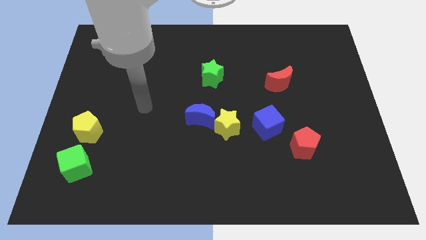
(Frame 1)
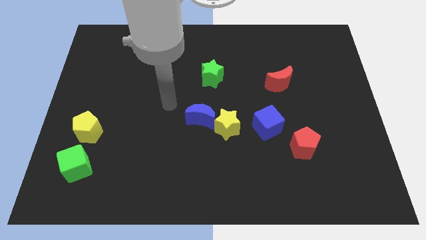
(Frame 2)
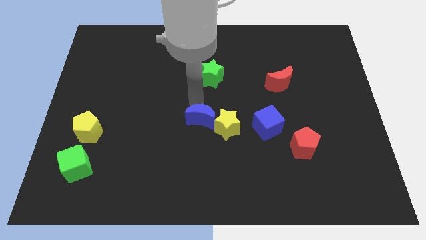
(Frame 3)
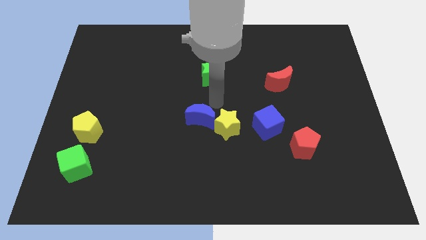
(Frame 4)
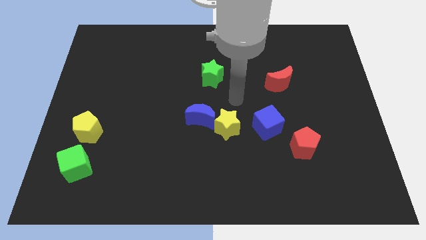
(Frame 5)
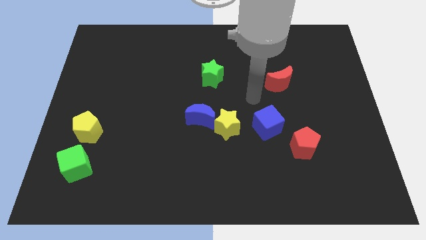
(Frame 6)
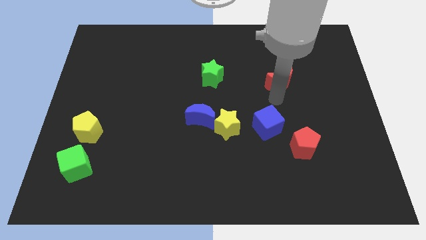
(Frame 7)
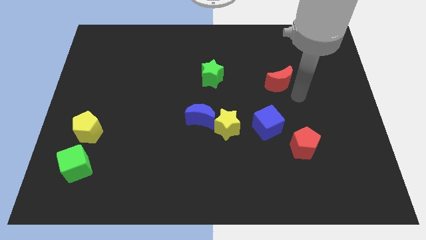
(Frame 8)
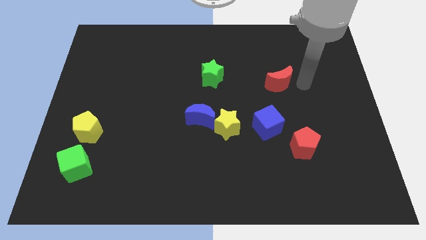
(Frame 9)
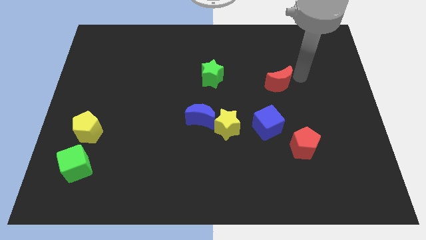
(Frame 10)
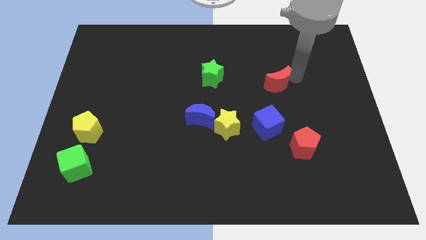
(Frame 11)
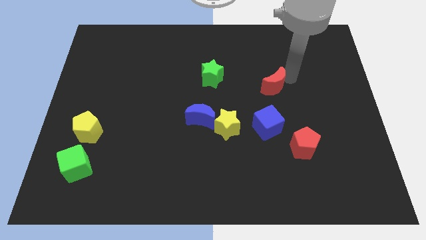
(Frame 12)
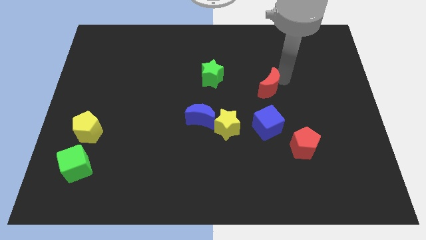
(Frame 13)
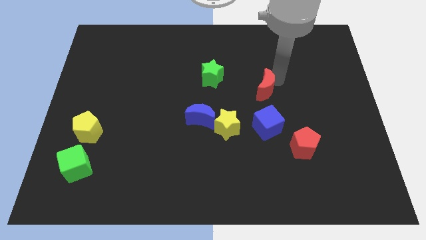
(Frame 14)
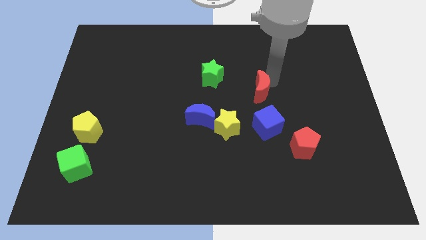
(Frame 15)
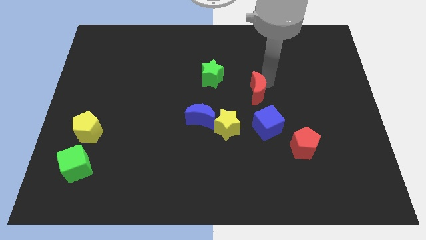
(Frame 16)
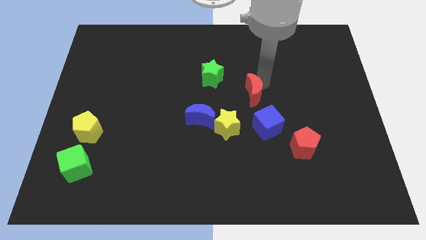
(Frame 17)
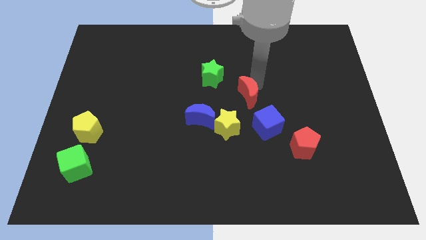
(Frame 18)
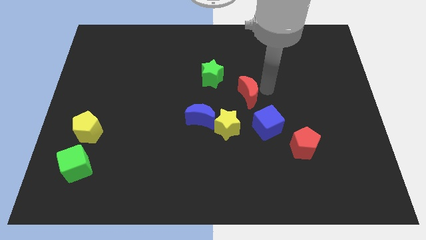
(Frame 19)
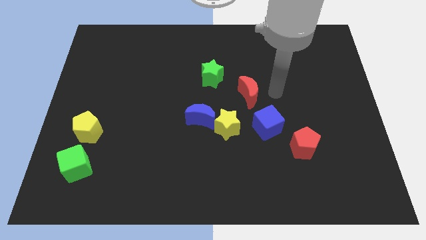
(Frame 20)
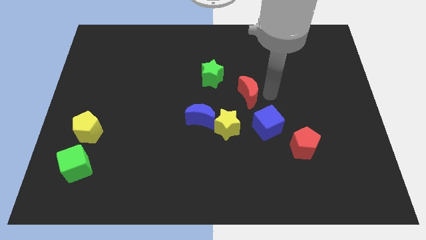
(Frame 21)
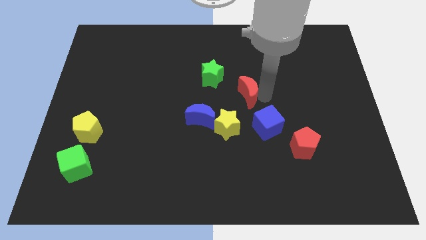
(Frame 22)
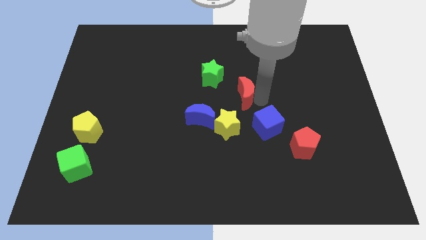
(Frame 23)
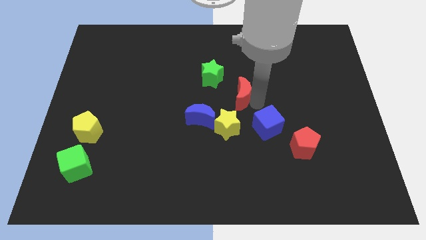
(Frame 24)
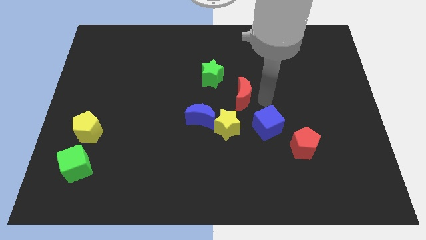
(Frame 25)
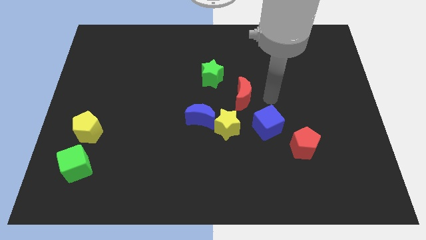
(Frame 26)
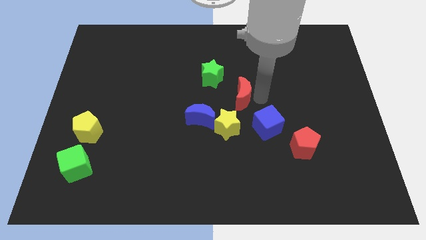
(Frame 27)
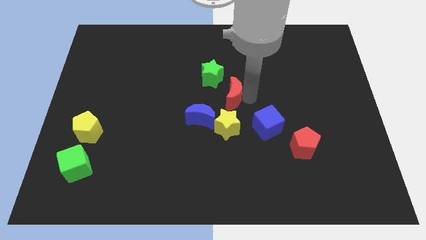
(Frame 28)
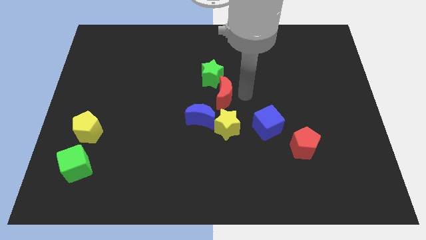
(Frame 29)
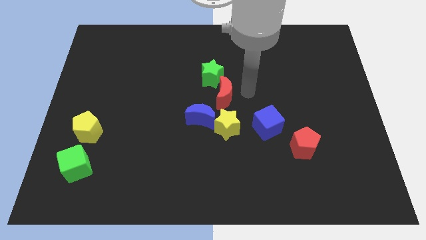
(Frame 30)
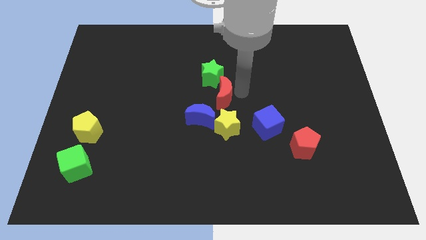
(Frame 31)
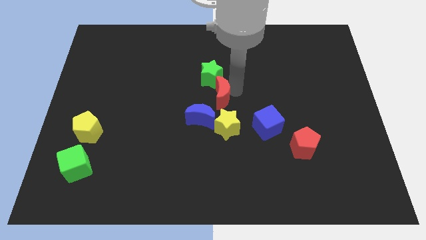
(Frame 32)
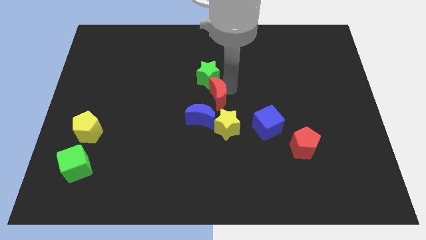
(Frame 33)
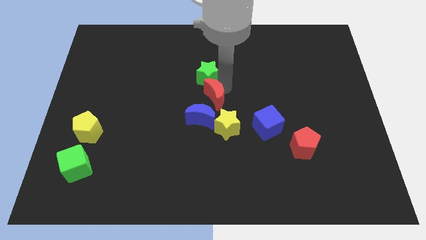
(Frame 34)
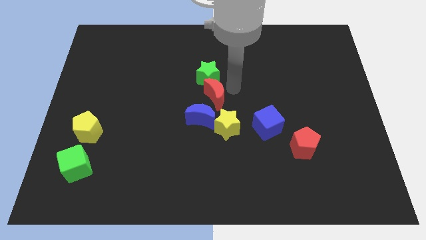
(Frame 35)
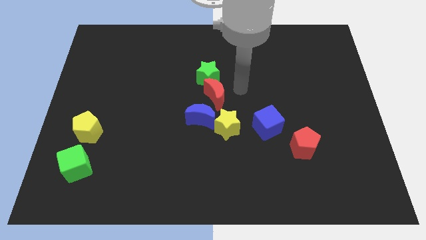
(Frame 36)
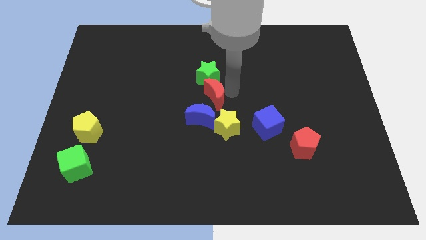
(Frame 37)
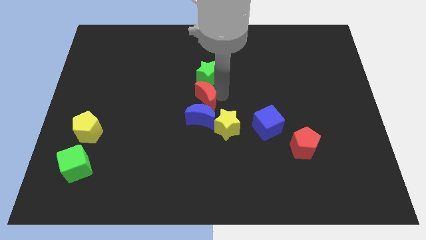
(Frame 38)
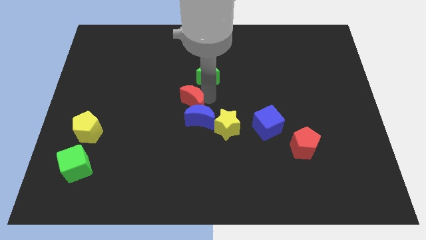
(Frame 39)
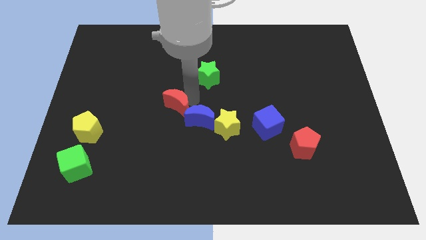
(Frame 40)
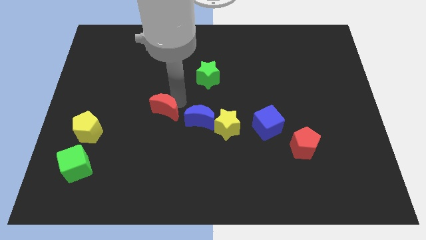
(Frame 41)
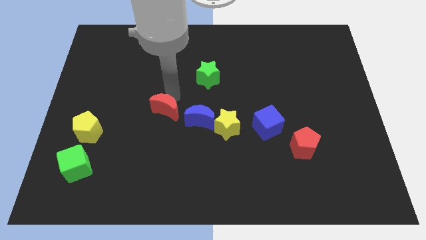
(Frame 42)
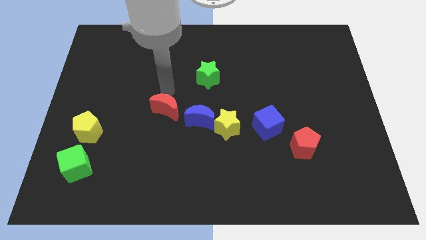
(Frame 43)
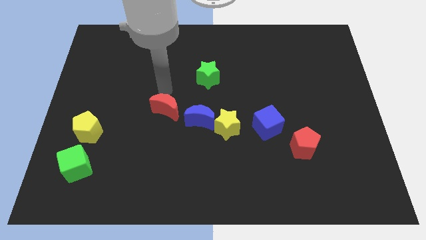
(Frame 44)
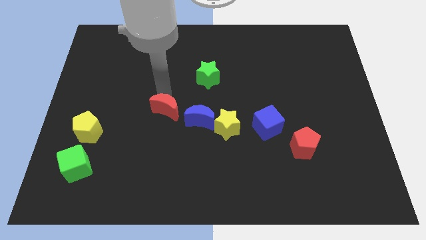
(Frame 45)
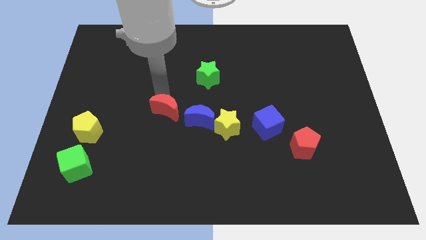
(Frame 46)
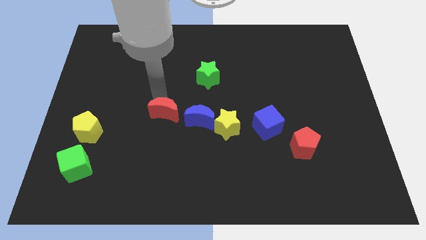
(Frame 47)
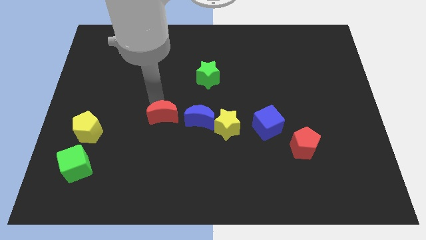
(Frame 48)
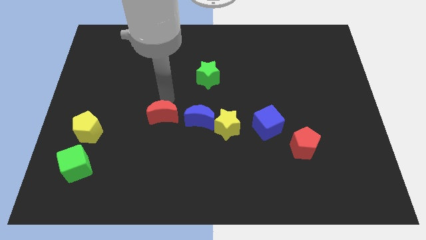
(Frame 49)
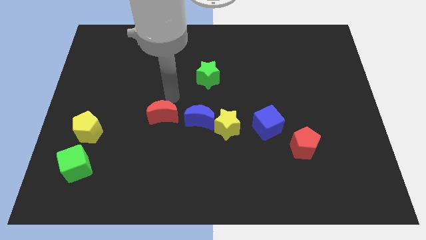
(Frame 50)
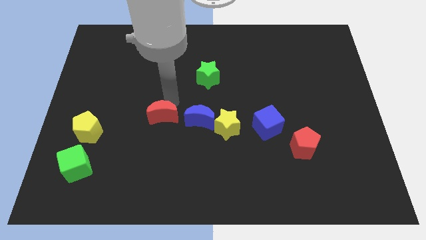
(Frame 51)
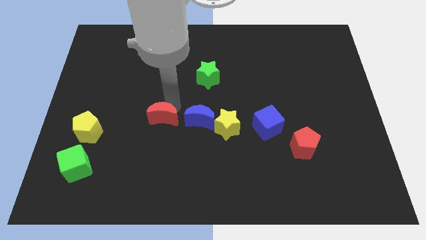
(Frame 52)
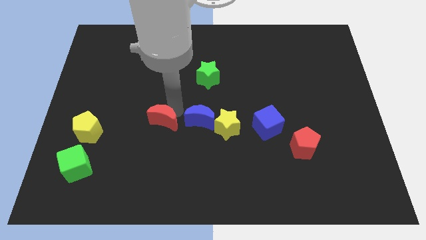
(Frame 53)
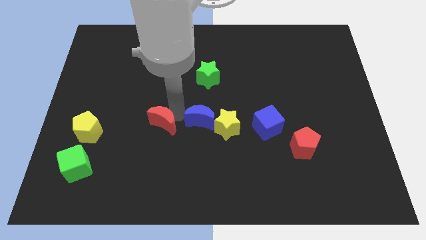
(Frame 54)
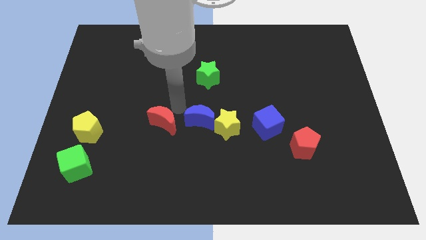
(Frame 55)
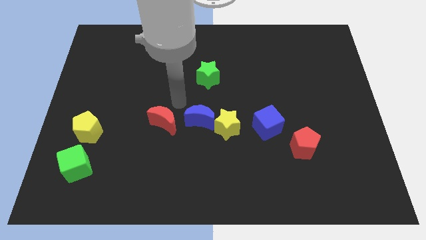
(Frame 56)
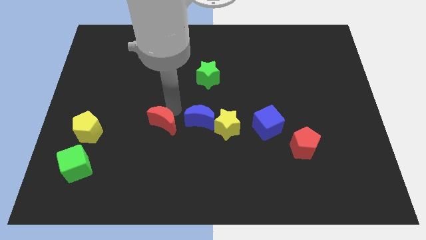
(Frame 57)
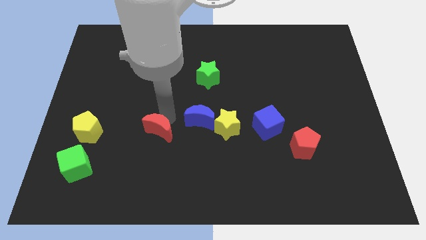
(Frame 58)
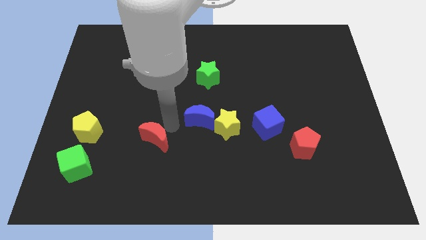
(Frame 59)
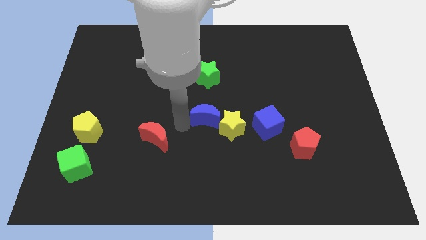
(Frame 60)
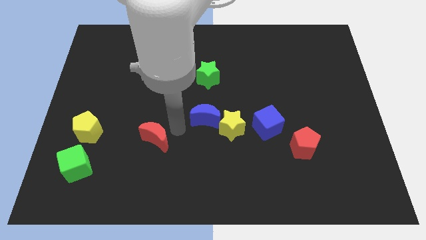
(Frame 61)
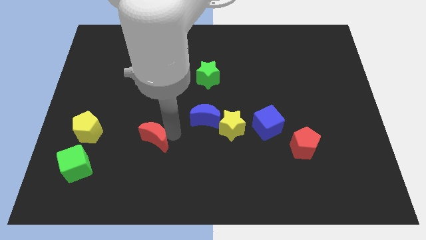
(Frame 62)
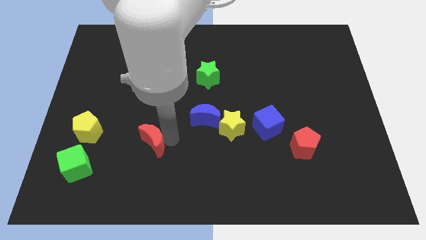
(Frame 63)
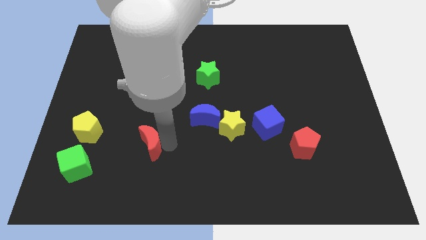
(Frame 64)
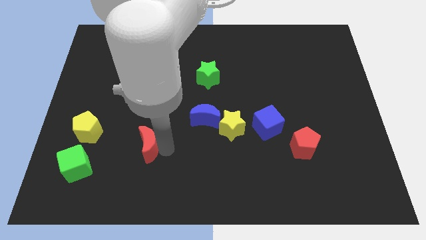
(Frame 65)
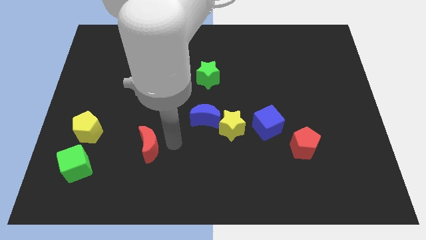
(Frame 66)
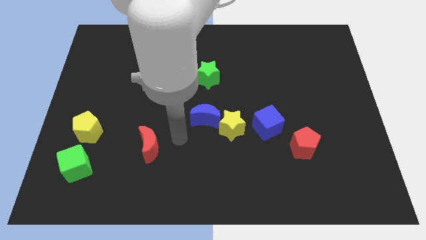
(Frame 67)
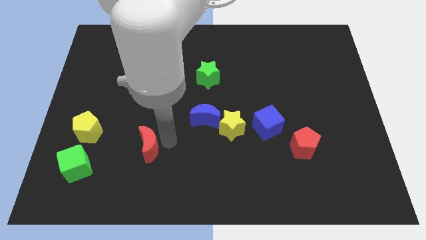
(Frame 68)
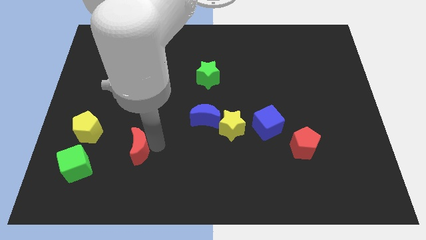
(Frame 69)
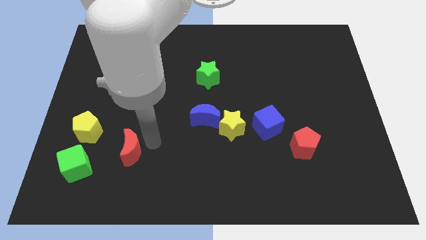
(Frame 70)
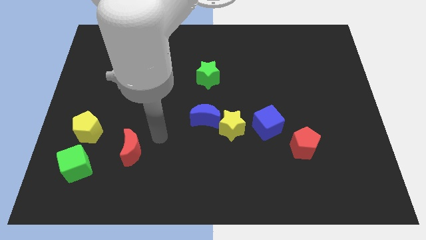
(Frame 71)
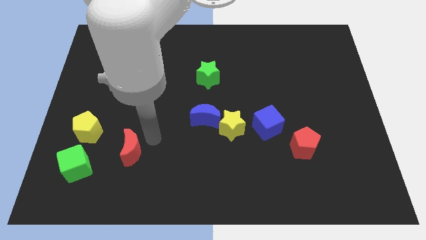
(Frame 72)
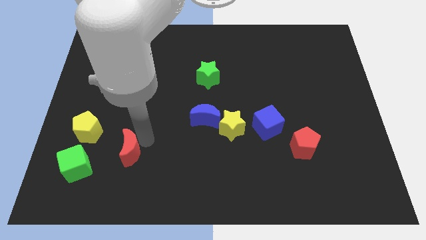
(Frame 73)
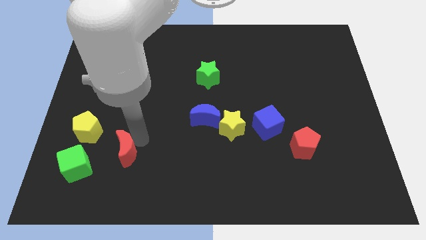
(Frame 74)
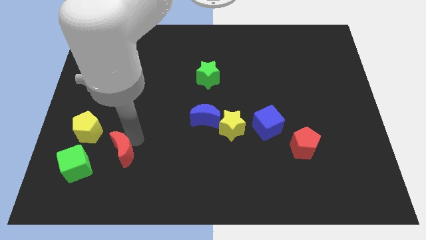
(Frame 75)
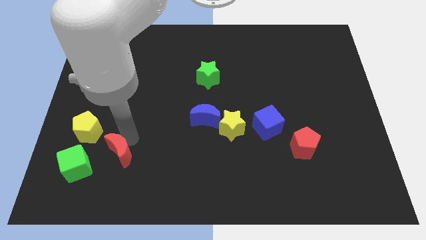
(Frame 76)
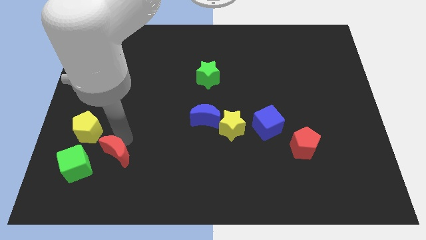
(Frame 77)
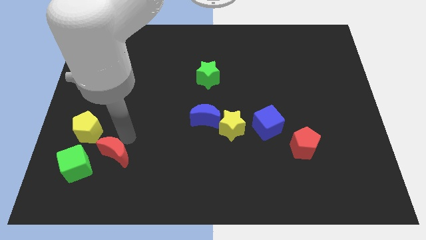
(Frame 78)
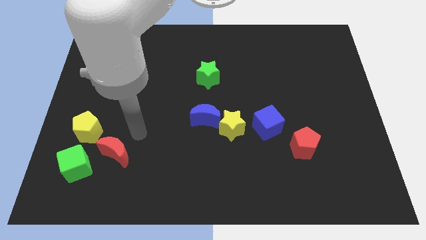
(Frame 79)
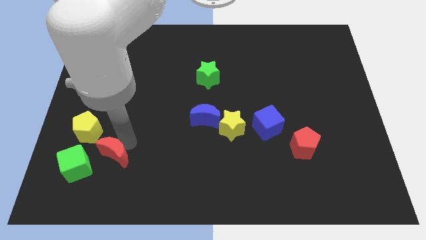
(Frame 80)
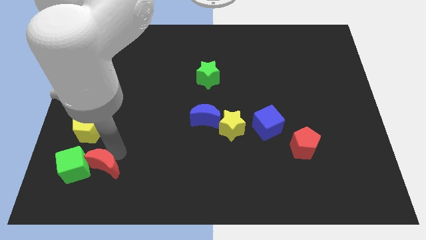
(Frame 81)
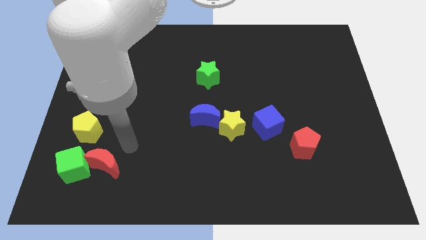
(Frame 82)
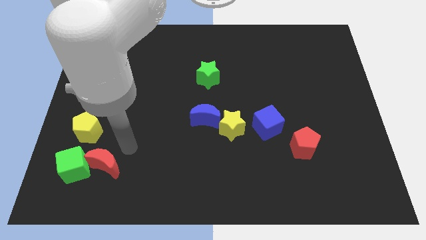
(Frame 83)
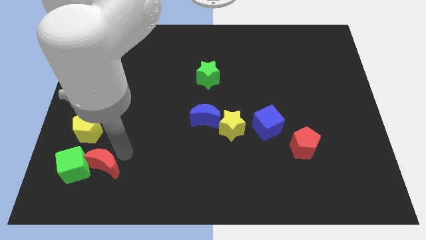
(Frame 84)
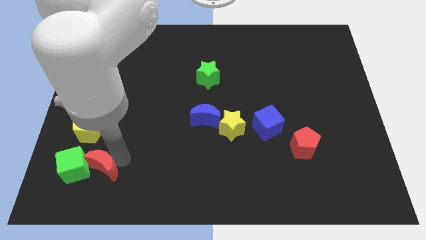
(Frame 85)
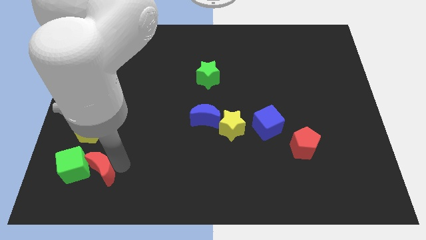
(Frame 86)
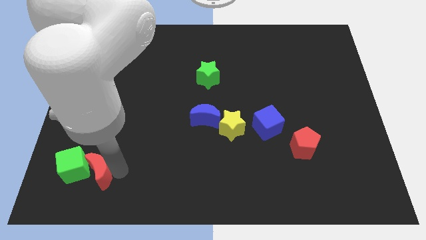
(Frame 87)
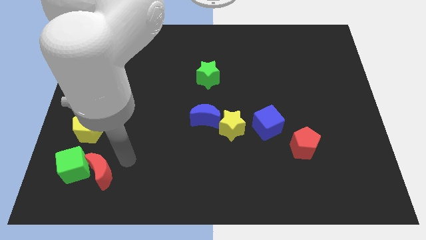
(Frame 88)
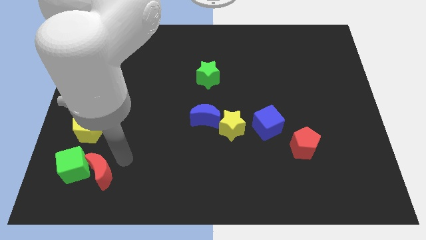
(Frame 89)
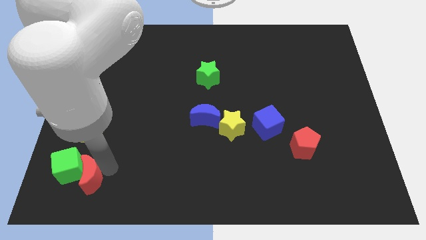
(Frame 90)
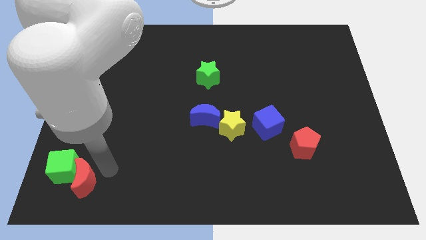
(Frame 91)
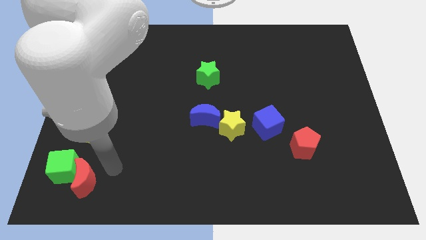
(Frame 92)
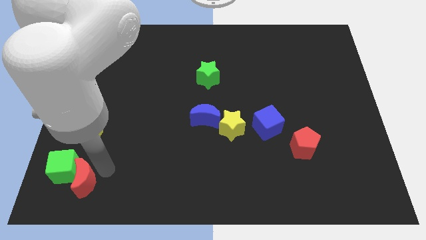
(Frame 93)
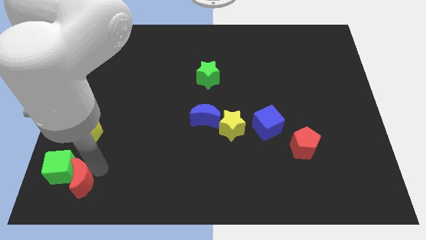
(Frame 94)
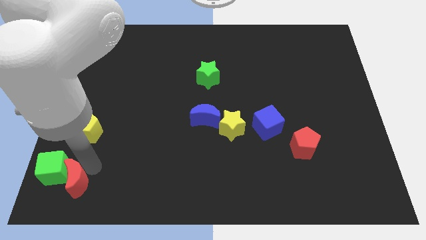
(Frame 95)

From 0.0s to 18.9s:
move the red moon to the bottom left corner
